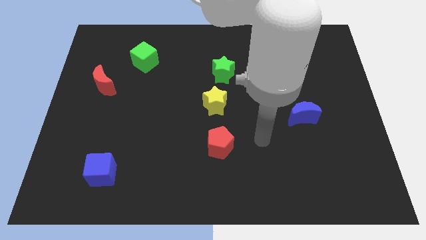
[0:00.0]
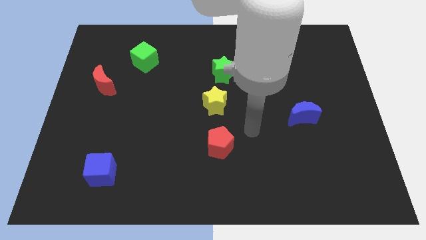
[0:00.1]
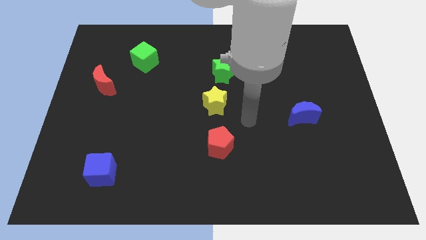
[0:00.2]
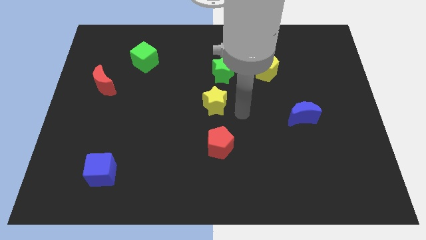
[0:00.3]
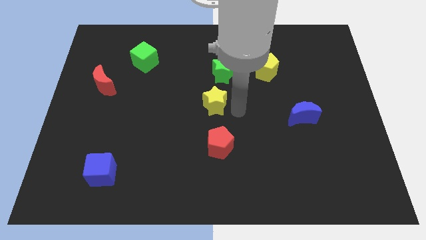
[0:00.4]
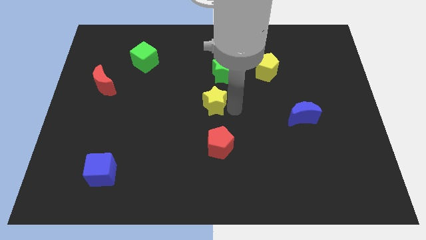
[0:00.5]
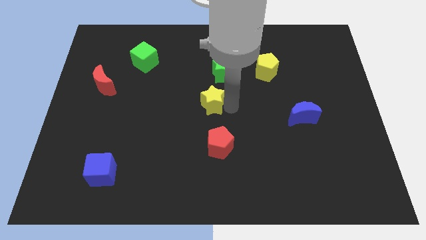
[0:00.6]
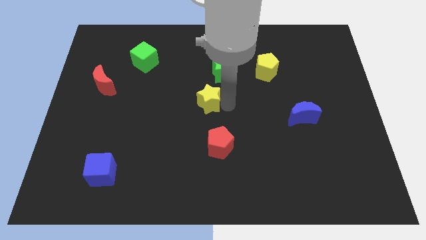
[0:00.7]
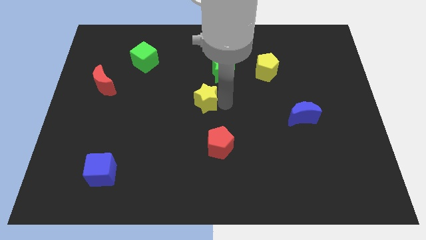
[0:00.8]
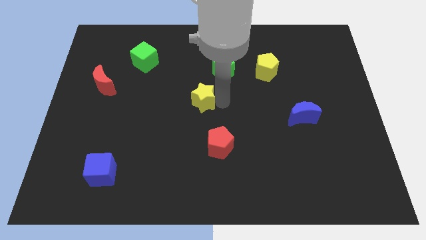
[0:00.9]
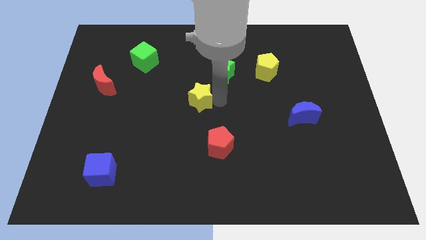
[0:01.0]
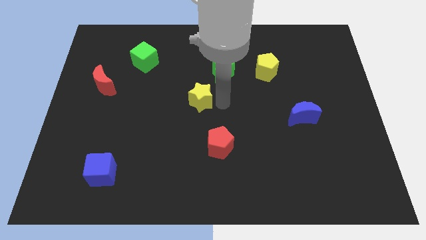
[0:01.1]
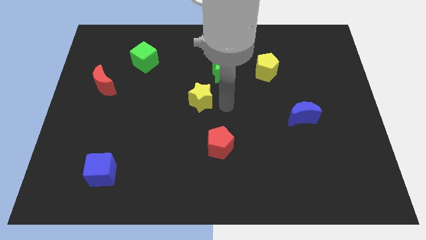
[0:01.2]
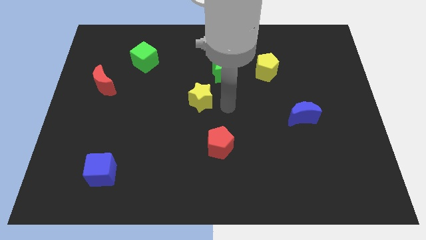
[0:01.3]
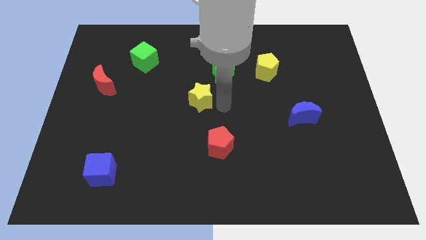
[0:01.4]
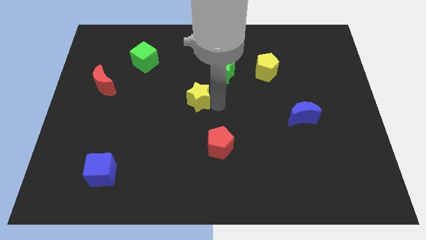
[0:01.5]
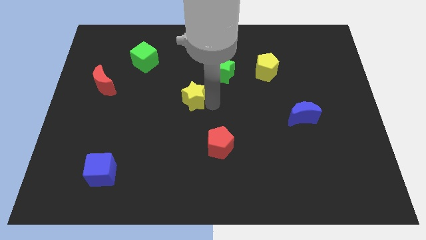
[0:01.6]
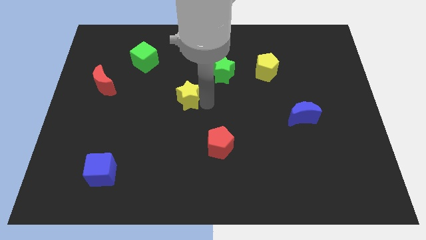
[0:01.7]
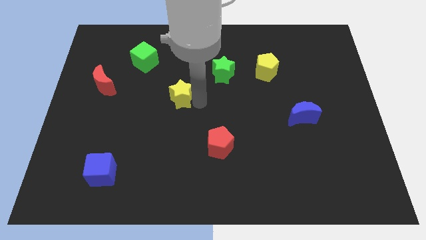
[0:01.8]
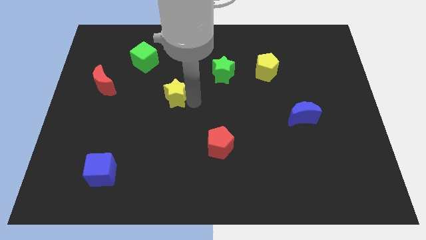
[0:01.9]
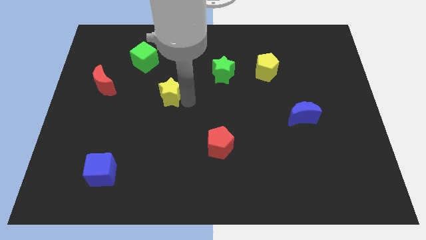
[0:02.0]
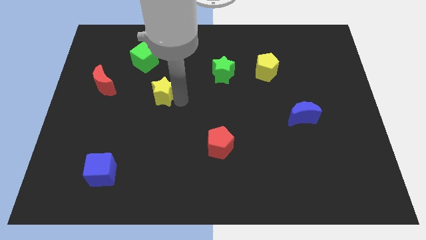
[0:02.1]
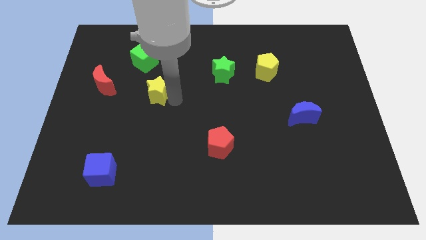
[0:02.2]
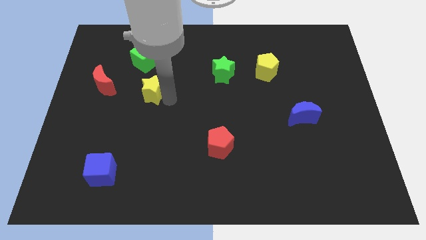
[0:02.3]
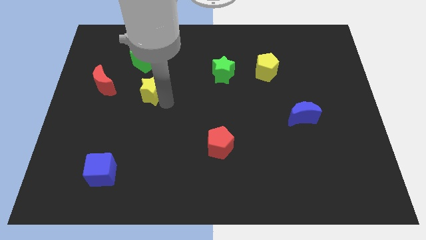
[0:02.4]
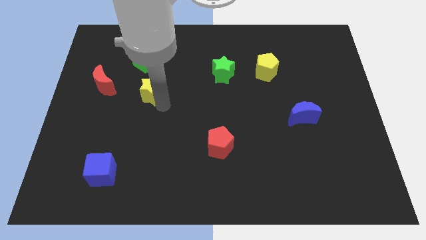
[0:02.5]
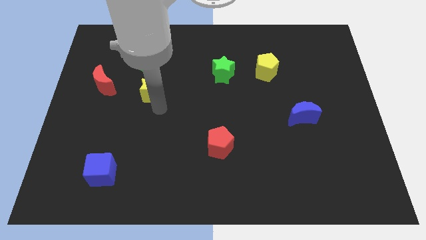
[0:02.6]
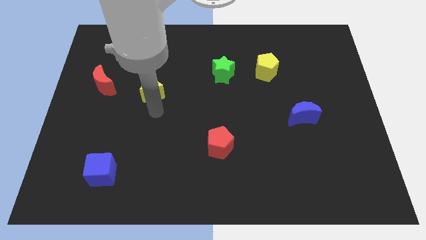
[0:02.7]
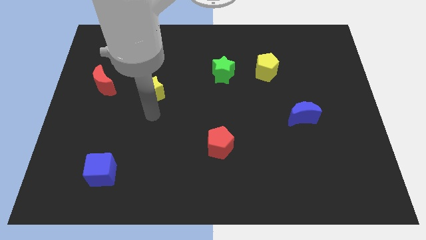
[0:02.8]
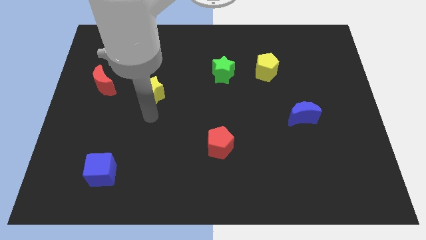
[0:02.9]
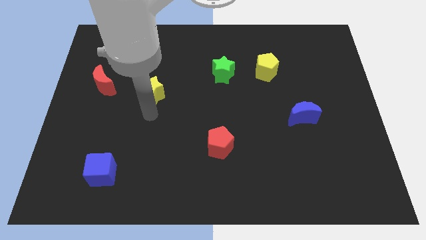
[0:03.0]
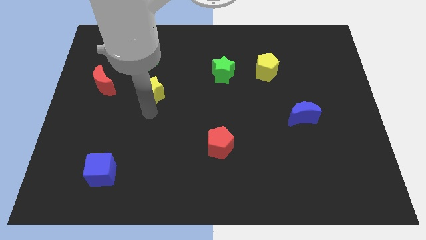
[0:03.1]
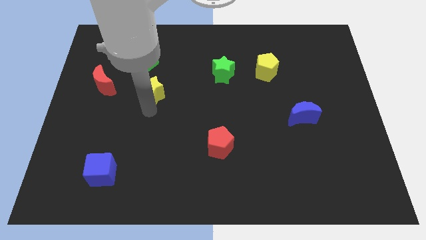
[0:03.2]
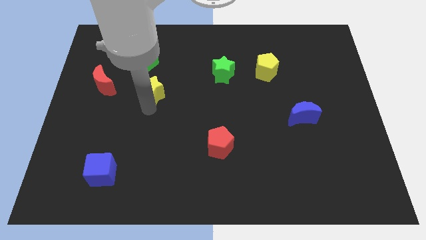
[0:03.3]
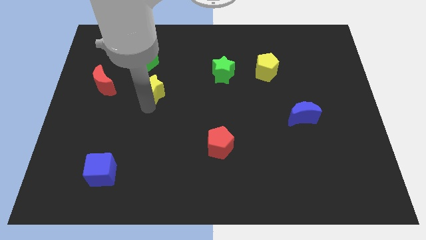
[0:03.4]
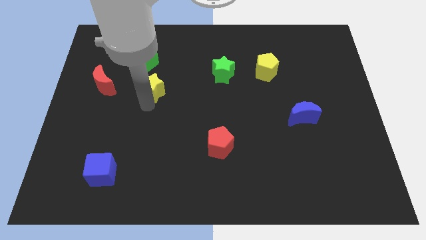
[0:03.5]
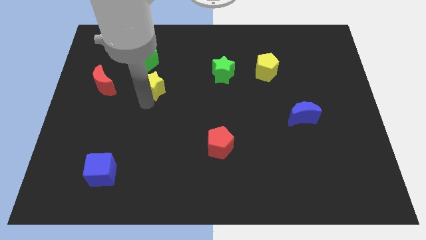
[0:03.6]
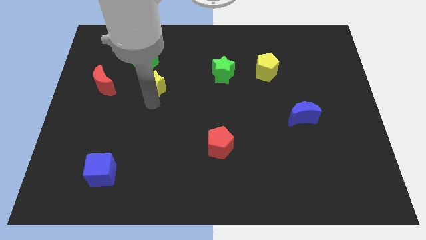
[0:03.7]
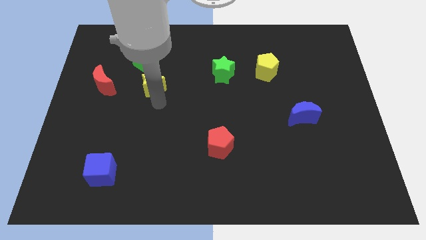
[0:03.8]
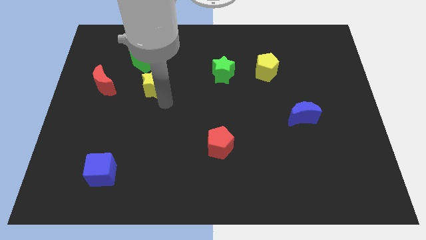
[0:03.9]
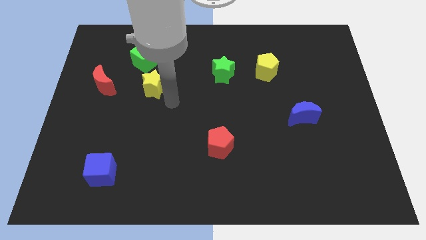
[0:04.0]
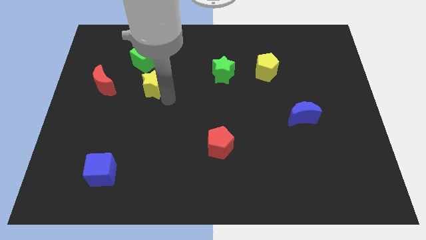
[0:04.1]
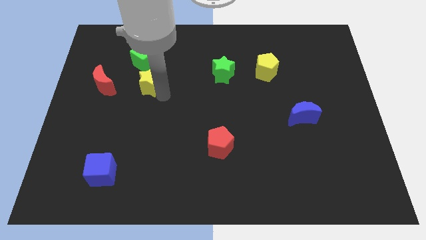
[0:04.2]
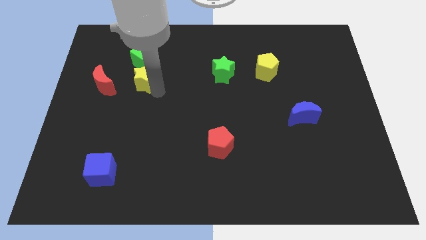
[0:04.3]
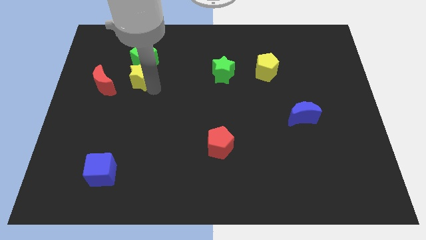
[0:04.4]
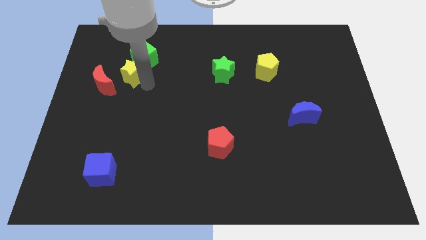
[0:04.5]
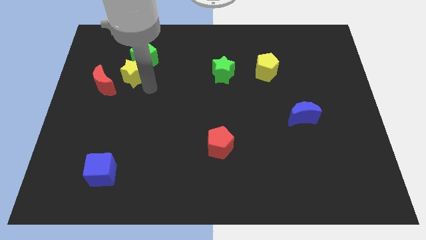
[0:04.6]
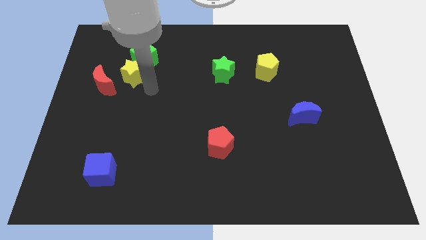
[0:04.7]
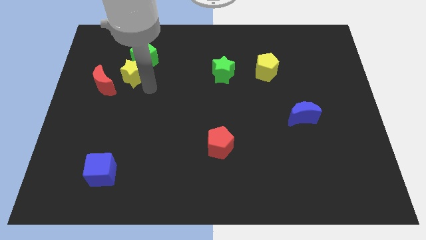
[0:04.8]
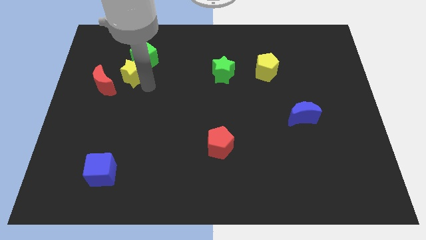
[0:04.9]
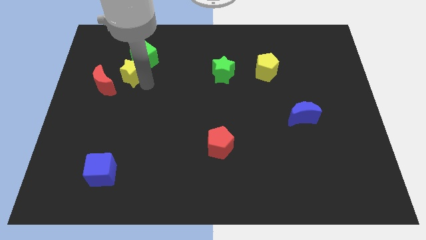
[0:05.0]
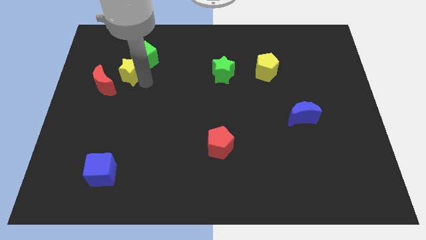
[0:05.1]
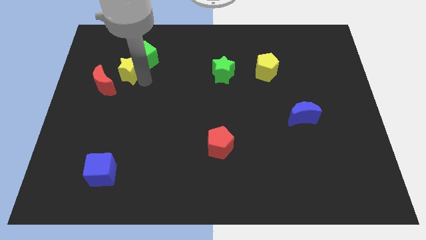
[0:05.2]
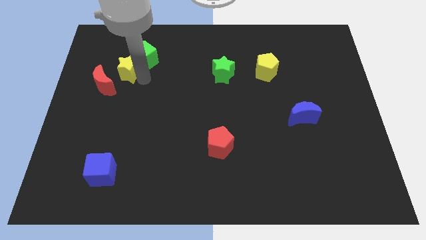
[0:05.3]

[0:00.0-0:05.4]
move the yellow star to the left side of the green cube

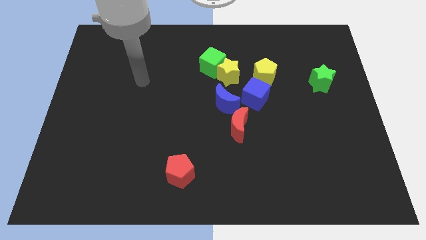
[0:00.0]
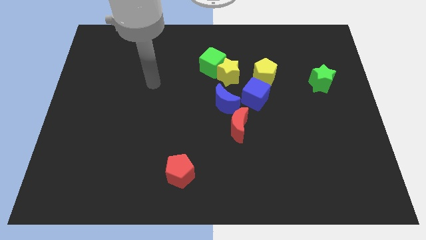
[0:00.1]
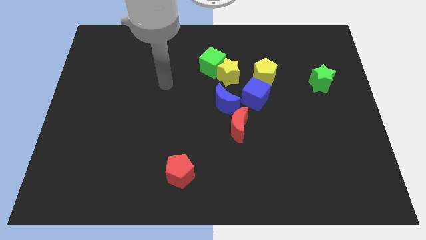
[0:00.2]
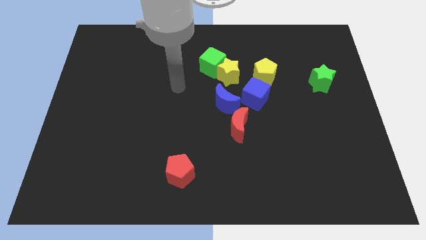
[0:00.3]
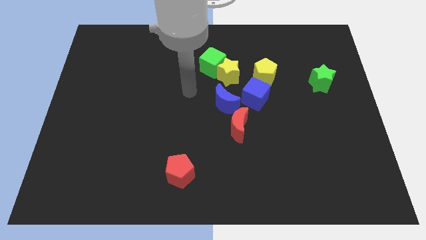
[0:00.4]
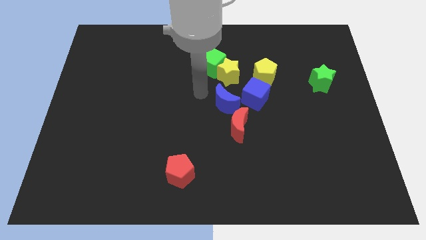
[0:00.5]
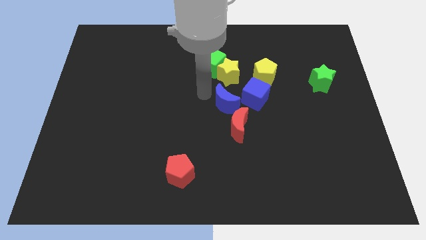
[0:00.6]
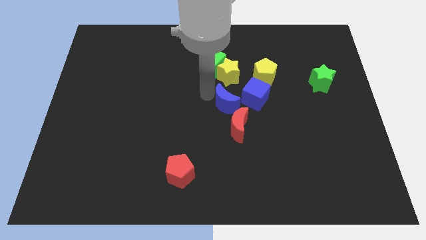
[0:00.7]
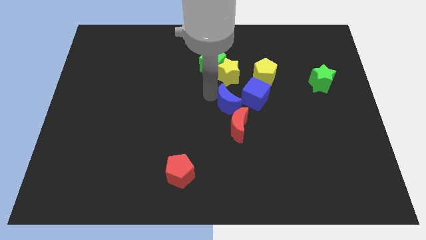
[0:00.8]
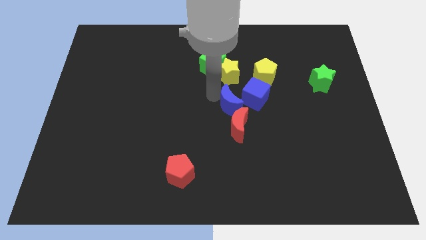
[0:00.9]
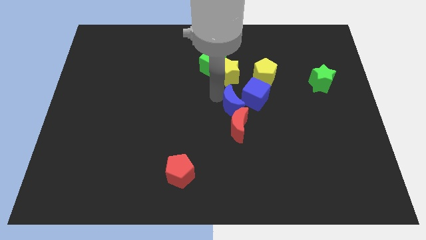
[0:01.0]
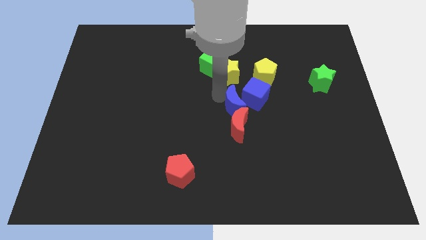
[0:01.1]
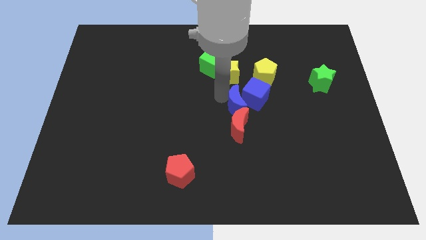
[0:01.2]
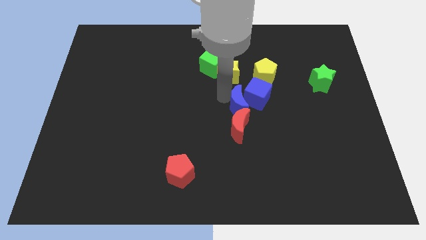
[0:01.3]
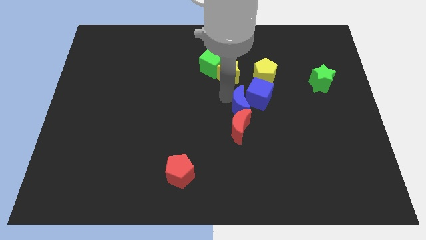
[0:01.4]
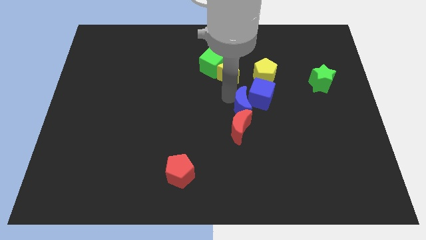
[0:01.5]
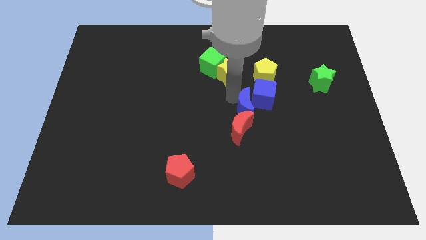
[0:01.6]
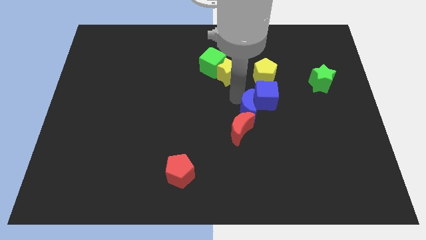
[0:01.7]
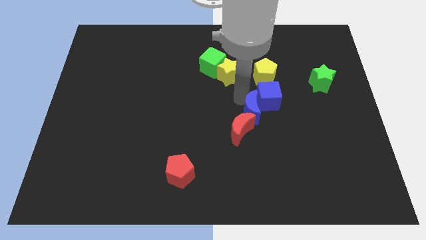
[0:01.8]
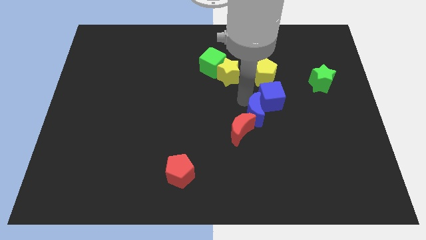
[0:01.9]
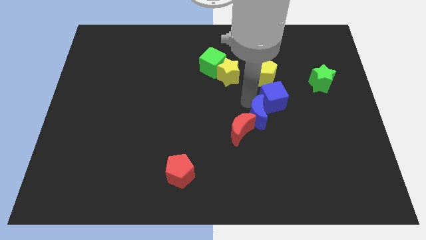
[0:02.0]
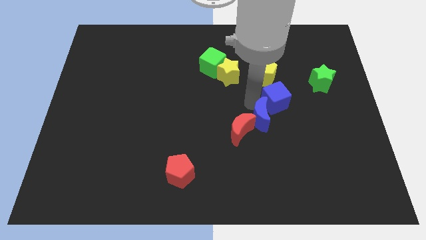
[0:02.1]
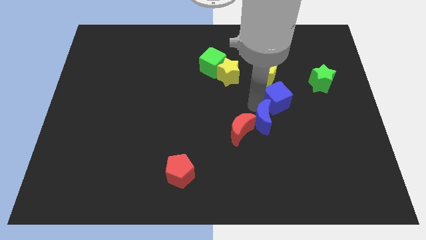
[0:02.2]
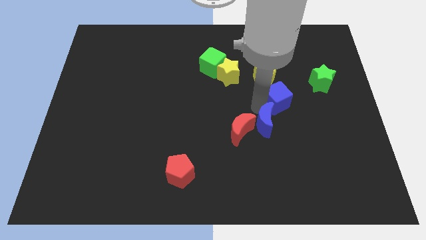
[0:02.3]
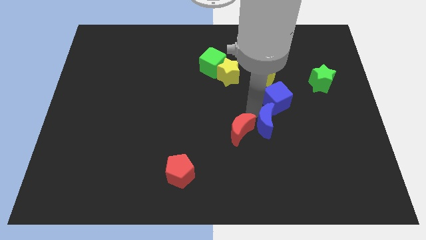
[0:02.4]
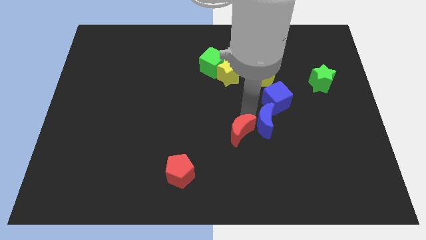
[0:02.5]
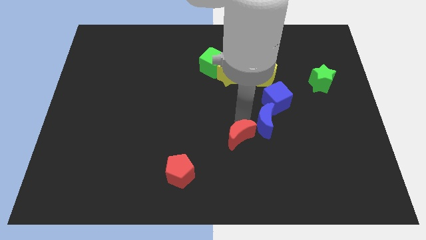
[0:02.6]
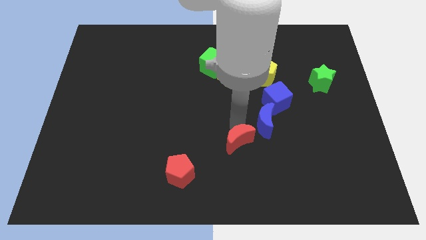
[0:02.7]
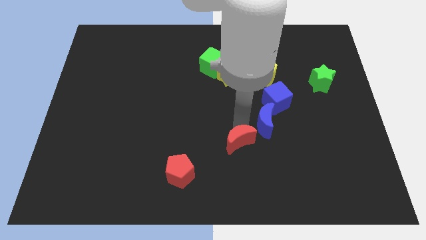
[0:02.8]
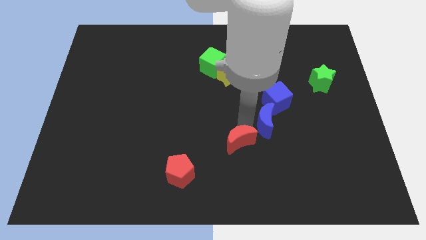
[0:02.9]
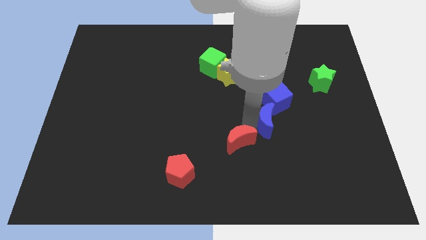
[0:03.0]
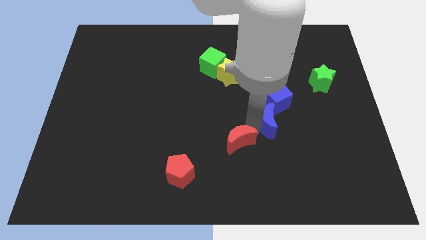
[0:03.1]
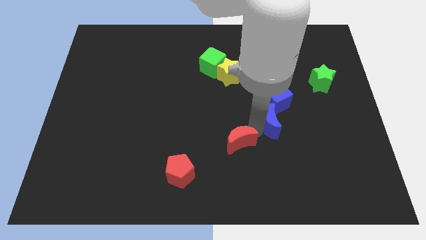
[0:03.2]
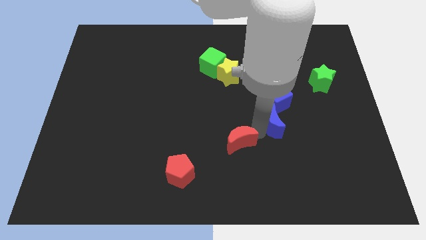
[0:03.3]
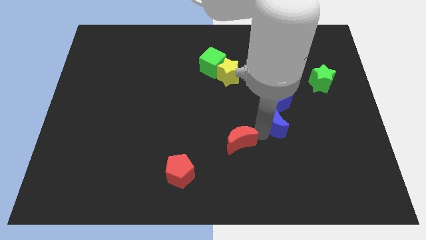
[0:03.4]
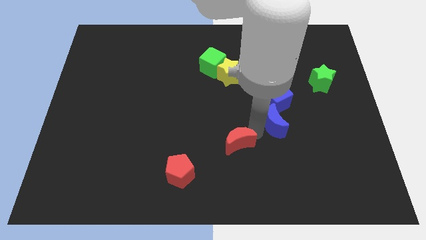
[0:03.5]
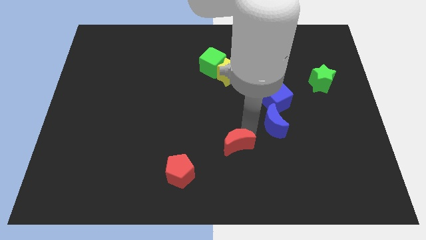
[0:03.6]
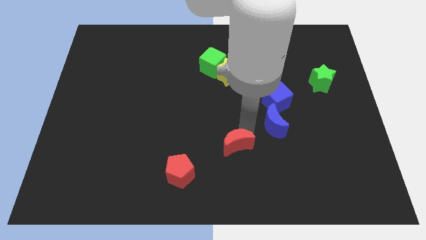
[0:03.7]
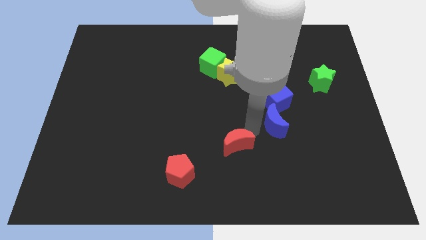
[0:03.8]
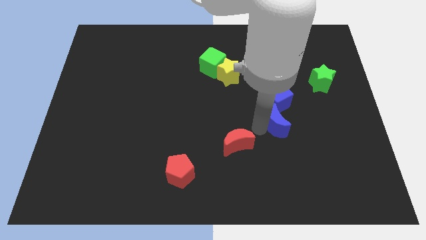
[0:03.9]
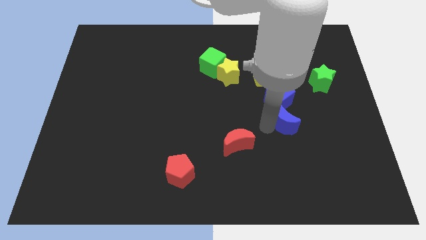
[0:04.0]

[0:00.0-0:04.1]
slide the blue moon to the bottom right side of the blue cube
